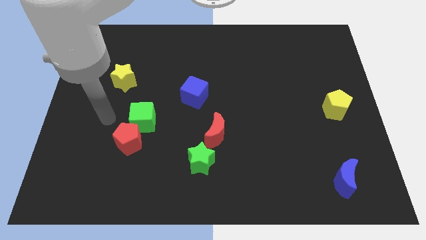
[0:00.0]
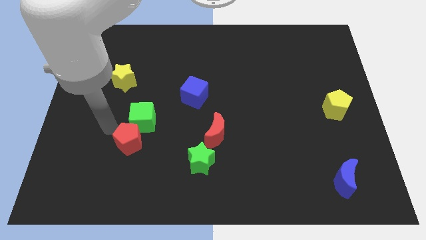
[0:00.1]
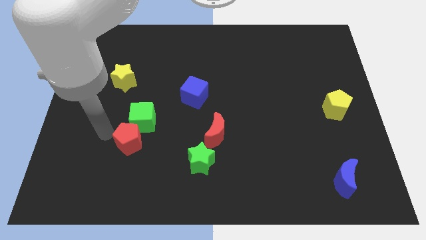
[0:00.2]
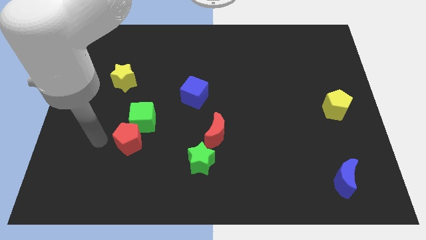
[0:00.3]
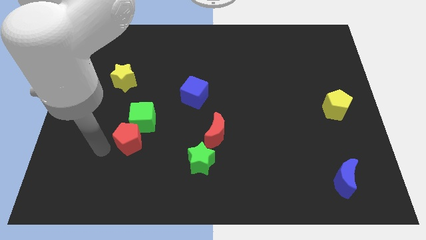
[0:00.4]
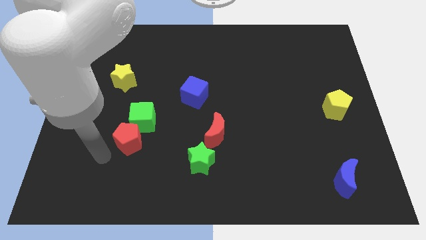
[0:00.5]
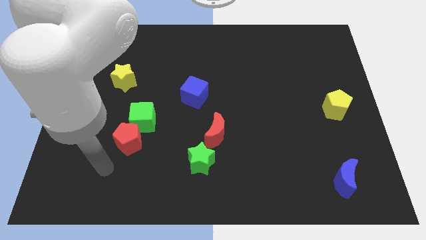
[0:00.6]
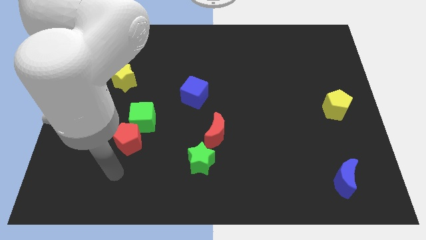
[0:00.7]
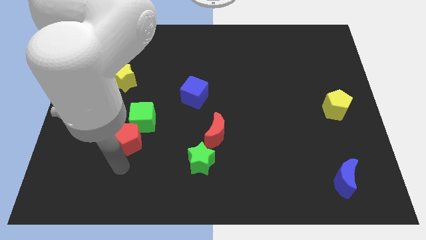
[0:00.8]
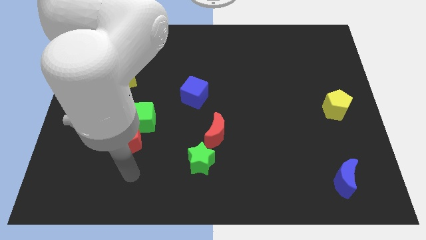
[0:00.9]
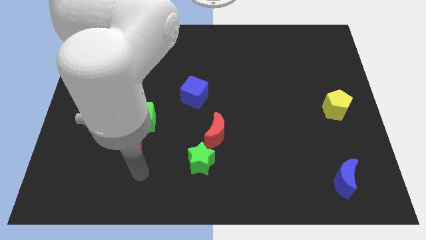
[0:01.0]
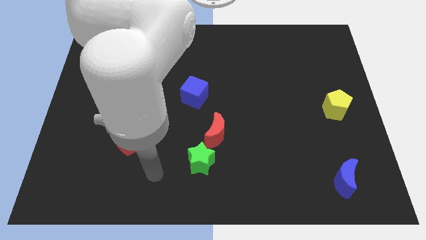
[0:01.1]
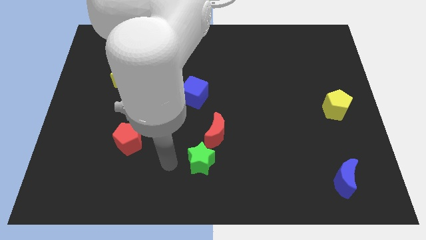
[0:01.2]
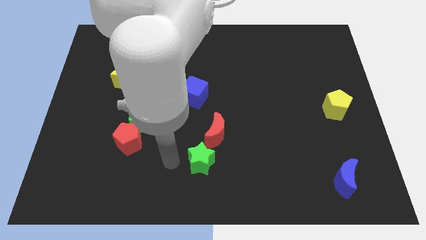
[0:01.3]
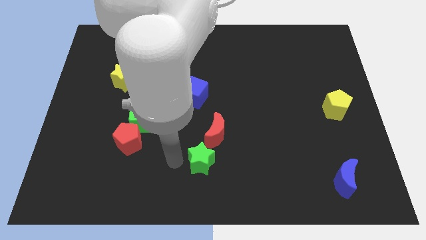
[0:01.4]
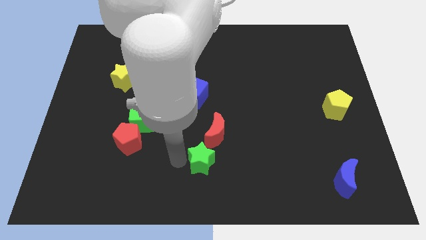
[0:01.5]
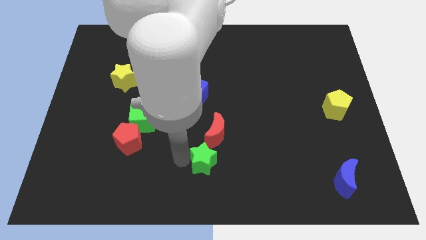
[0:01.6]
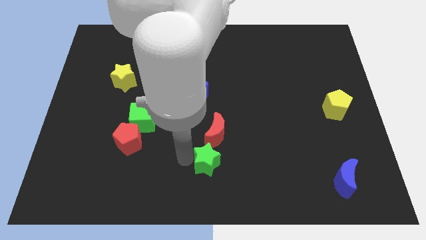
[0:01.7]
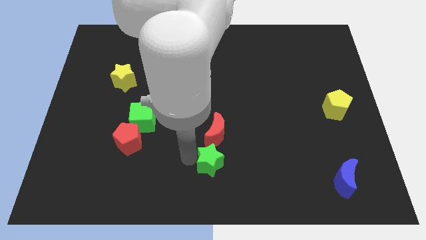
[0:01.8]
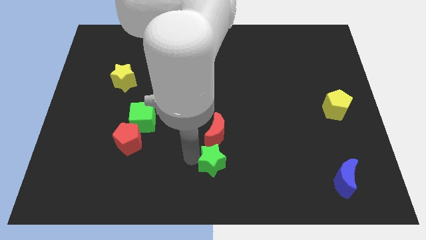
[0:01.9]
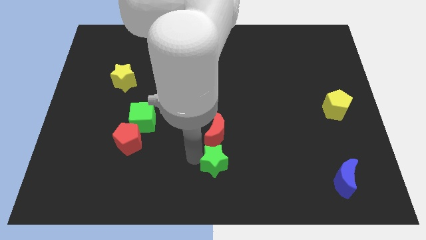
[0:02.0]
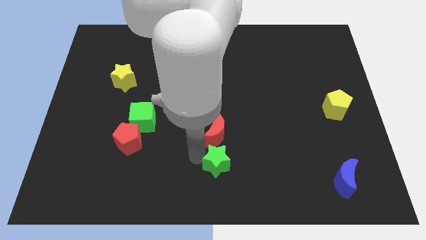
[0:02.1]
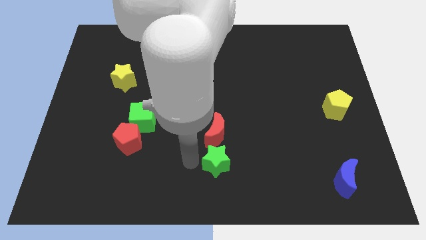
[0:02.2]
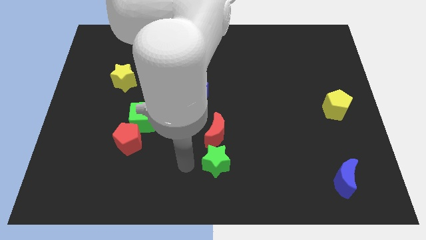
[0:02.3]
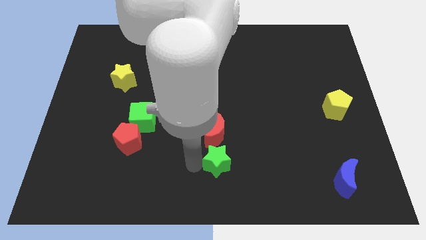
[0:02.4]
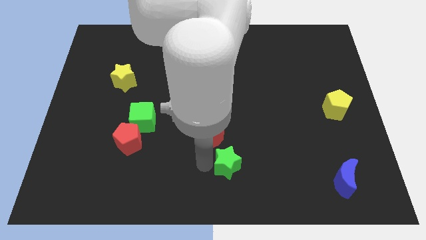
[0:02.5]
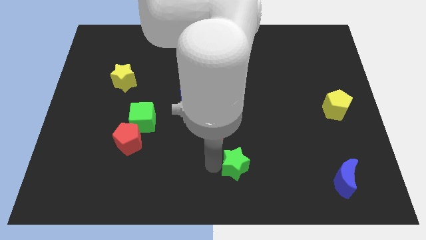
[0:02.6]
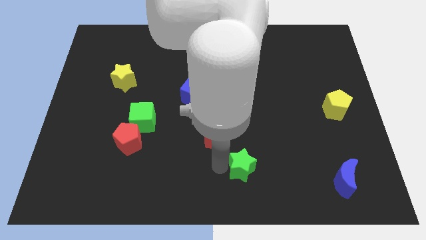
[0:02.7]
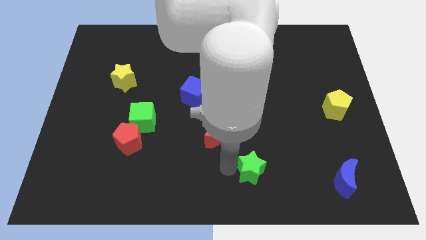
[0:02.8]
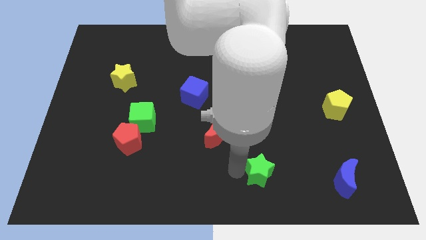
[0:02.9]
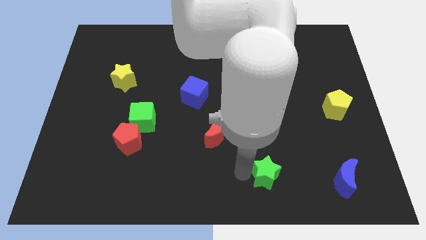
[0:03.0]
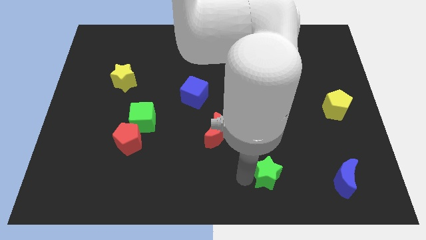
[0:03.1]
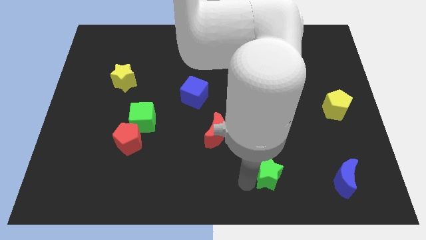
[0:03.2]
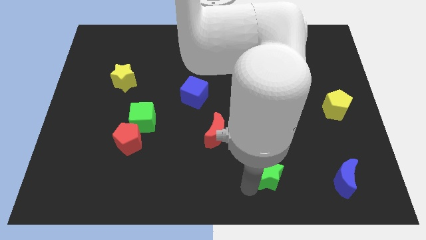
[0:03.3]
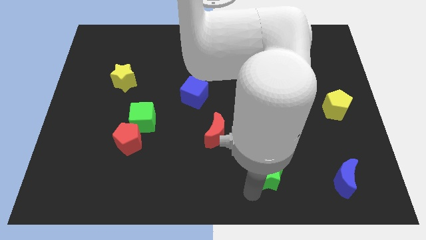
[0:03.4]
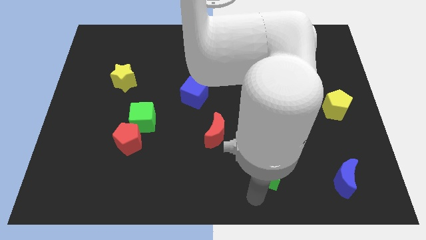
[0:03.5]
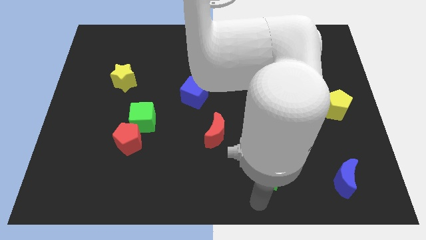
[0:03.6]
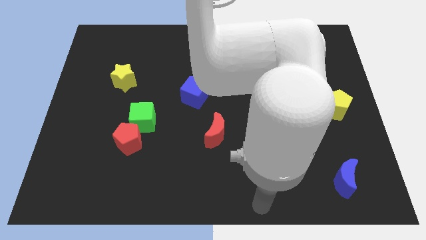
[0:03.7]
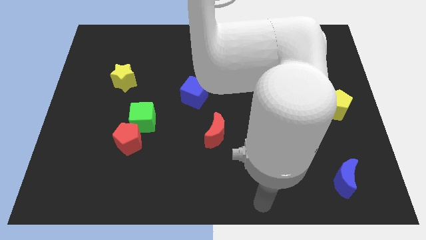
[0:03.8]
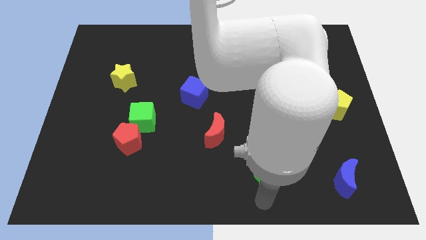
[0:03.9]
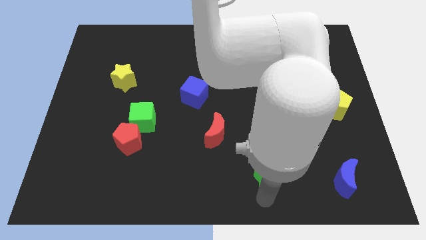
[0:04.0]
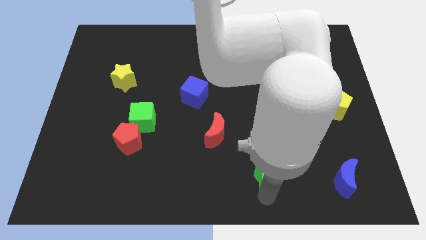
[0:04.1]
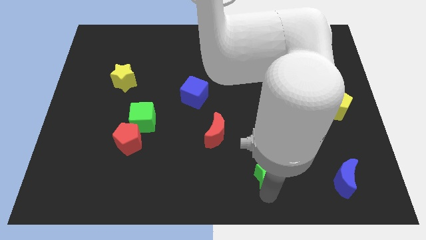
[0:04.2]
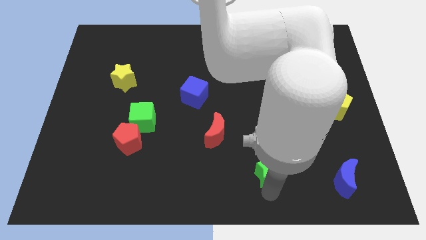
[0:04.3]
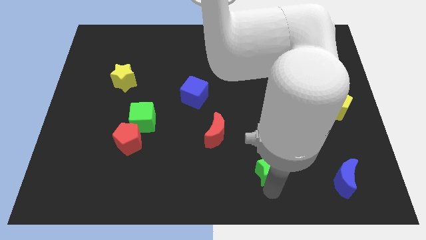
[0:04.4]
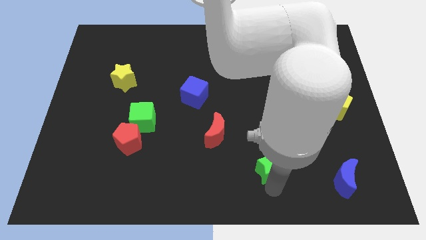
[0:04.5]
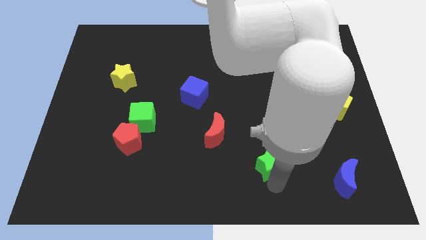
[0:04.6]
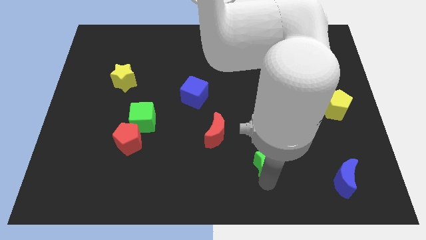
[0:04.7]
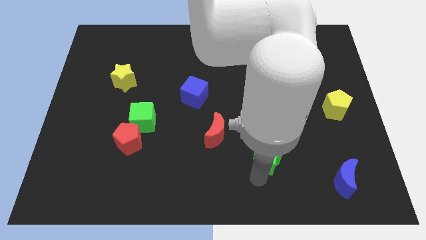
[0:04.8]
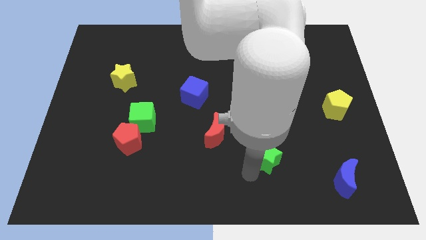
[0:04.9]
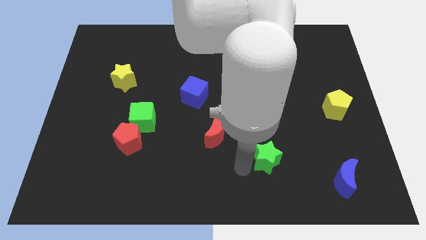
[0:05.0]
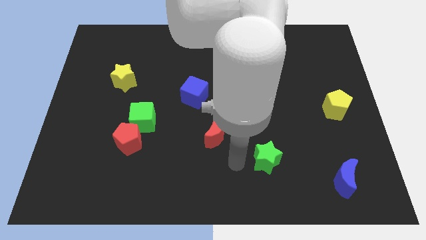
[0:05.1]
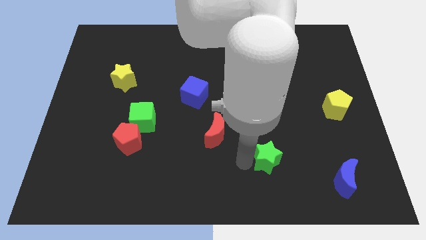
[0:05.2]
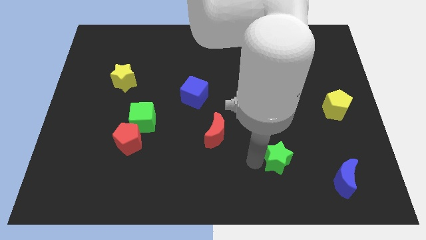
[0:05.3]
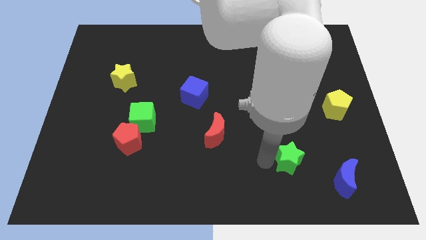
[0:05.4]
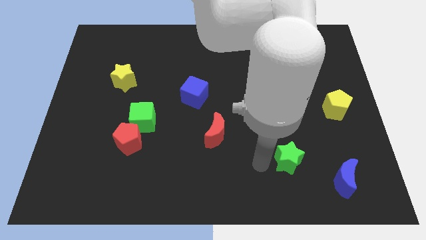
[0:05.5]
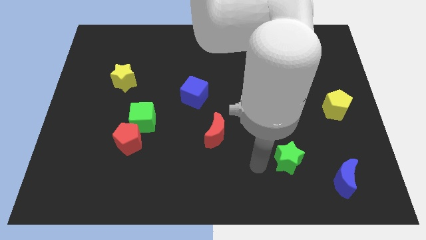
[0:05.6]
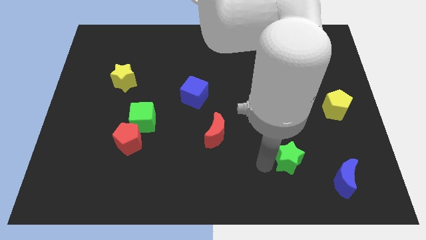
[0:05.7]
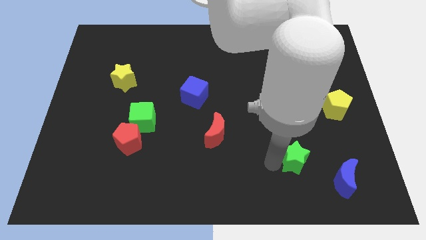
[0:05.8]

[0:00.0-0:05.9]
slide the green star to the top left side of the blue moon

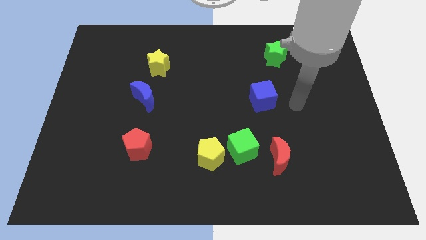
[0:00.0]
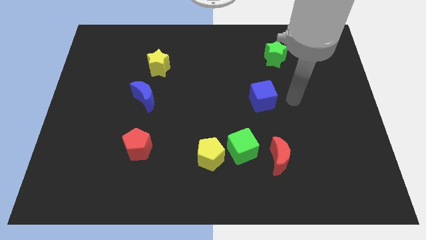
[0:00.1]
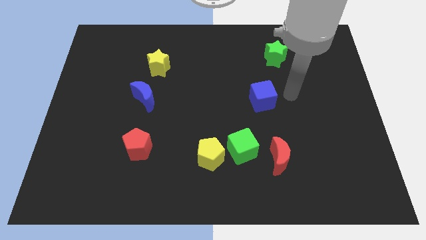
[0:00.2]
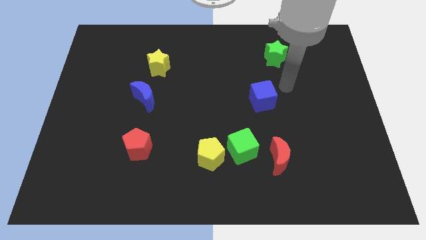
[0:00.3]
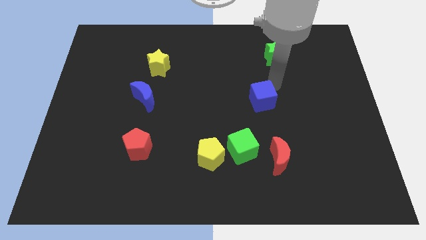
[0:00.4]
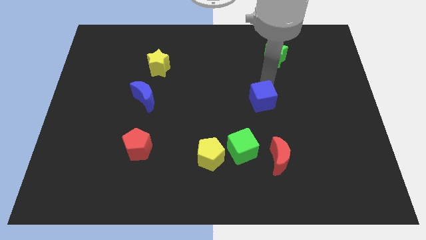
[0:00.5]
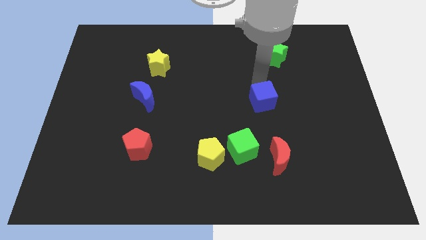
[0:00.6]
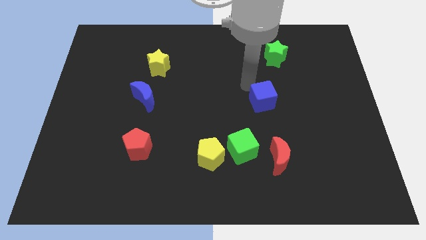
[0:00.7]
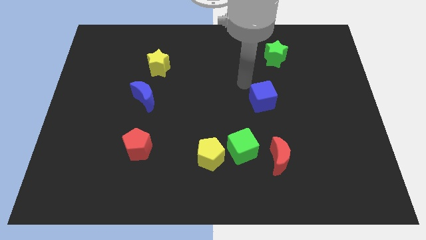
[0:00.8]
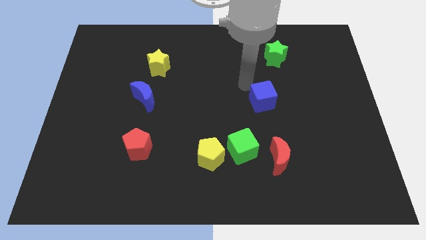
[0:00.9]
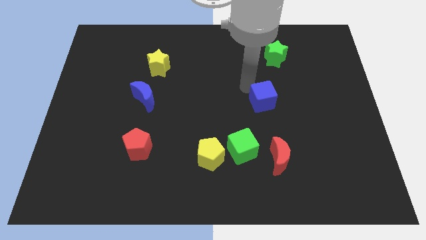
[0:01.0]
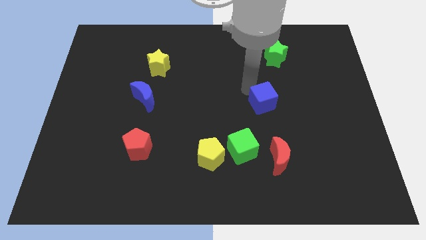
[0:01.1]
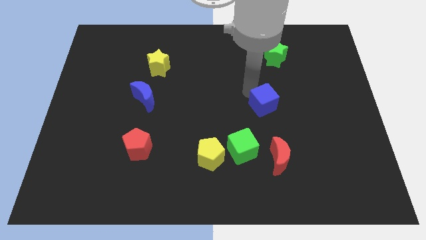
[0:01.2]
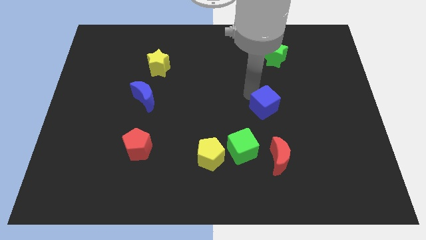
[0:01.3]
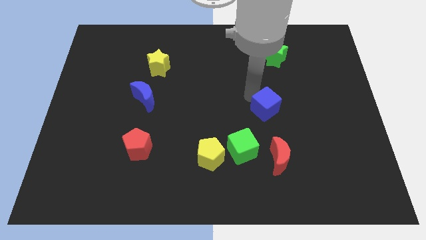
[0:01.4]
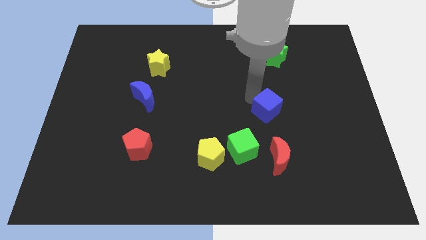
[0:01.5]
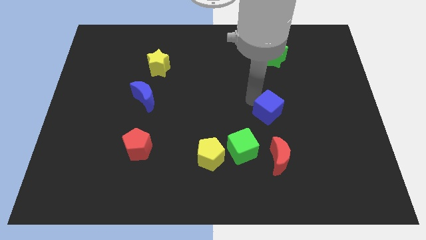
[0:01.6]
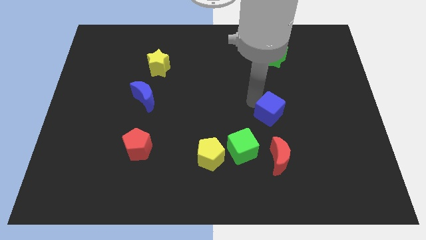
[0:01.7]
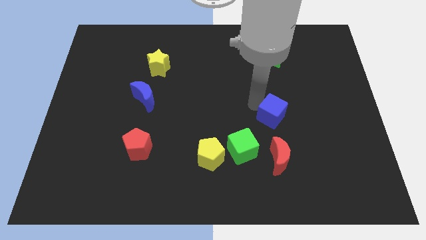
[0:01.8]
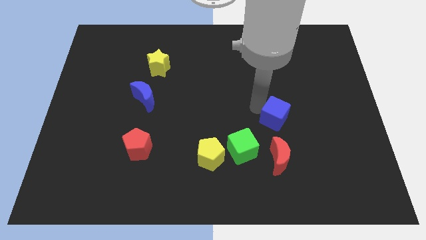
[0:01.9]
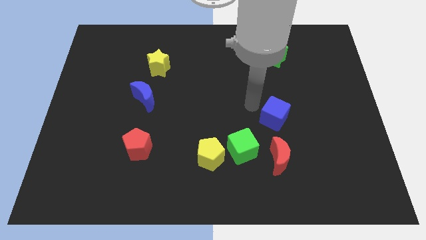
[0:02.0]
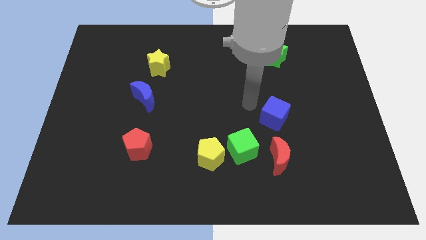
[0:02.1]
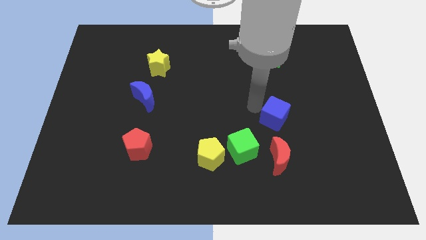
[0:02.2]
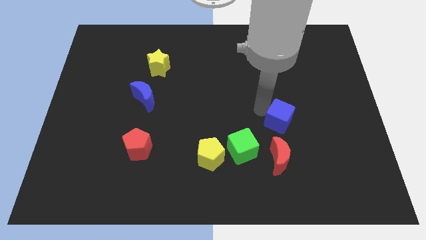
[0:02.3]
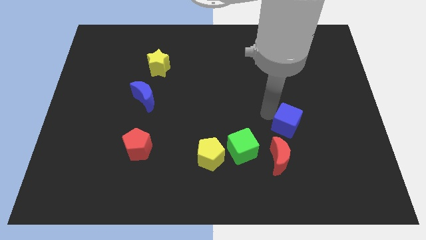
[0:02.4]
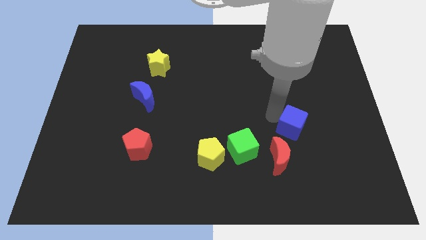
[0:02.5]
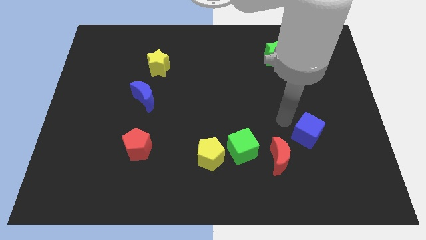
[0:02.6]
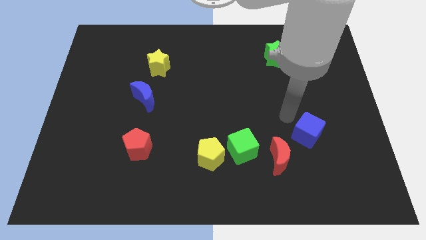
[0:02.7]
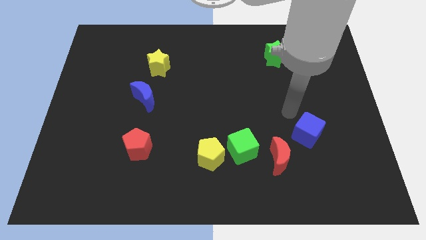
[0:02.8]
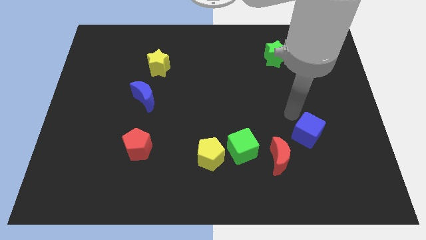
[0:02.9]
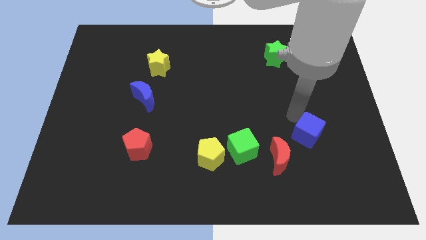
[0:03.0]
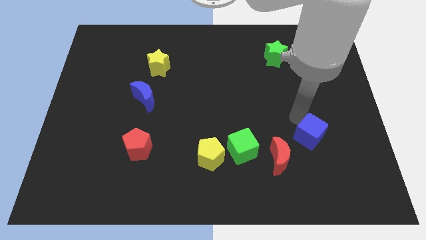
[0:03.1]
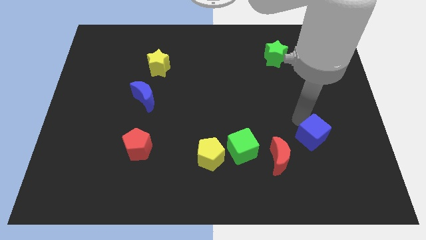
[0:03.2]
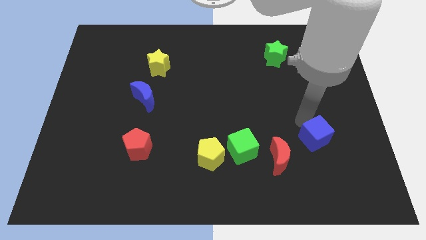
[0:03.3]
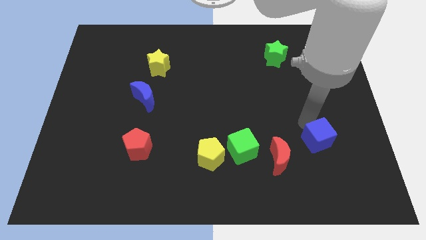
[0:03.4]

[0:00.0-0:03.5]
put the blue cube just right of the red moon
